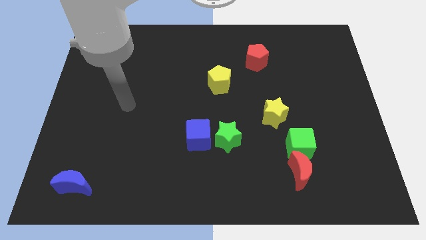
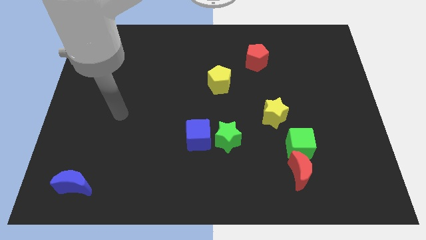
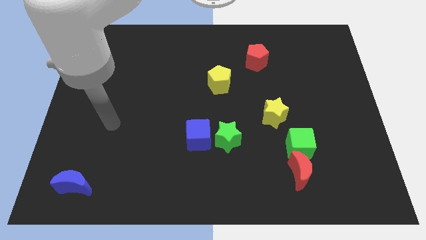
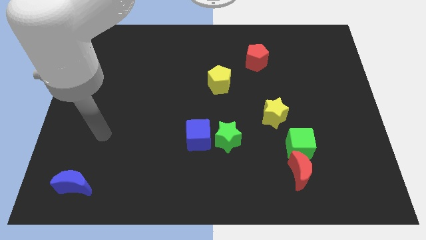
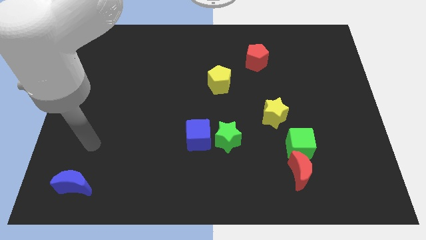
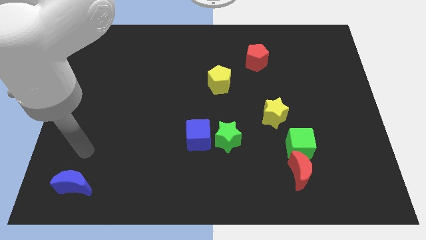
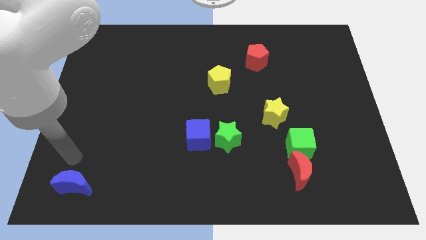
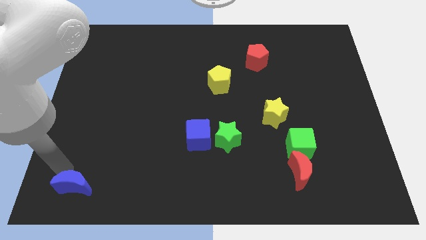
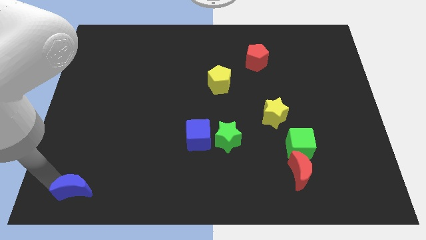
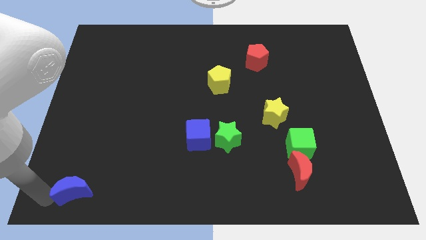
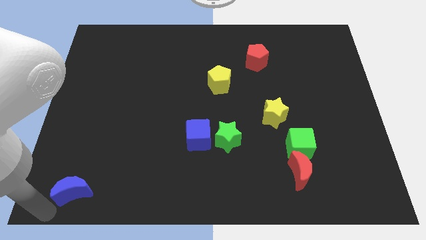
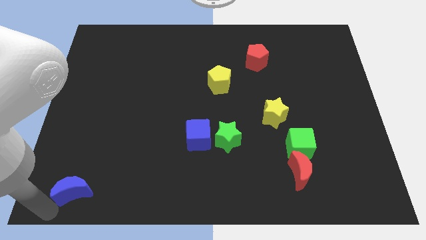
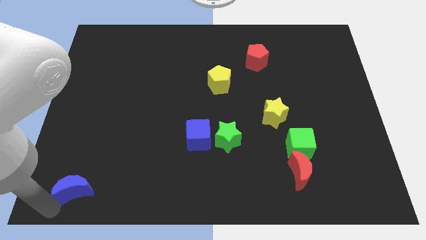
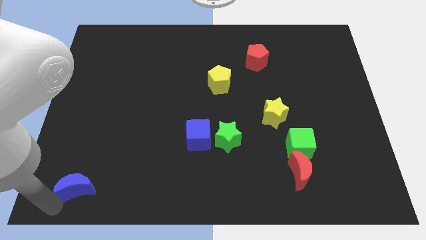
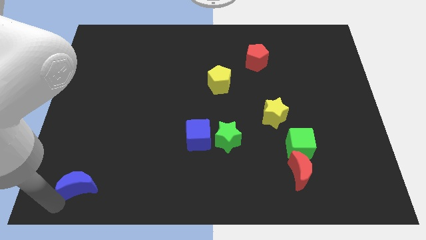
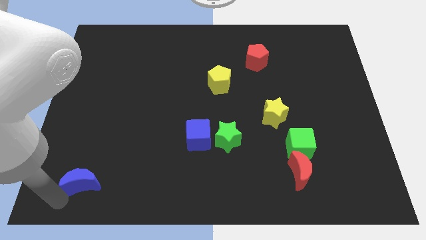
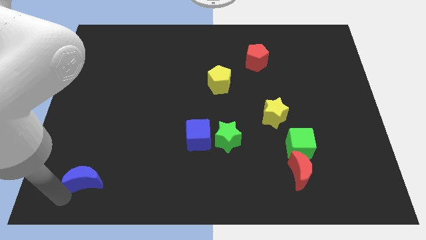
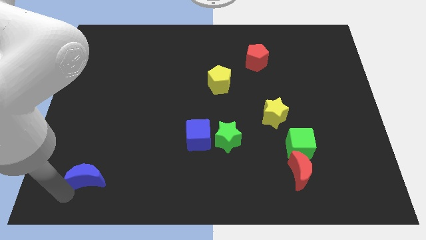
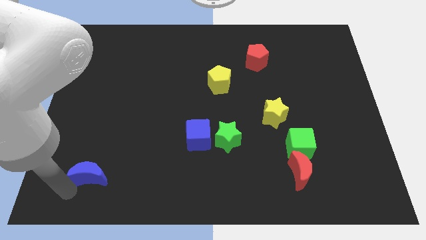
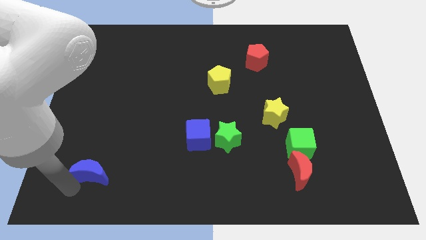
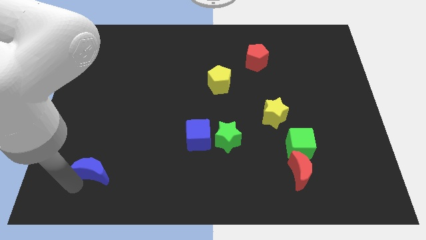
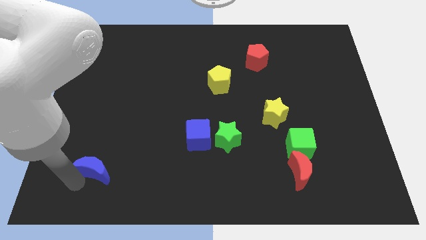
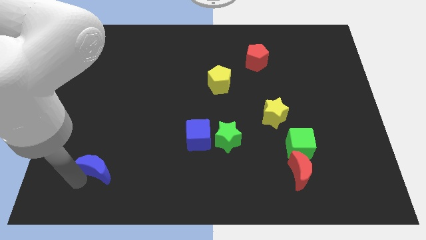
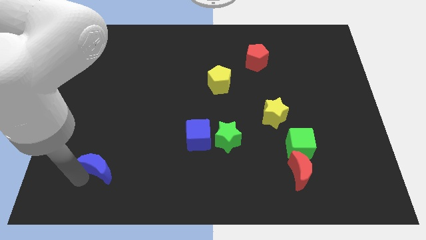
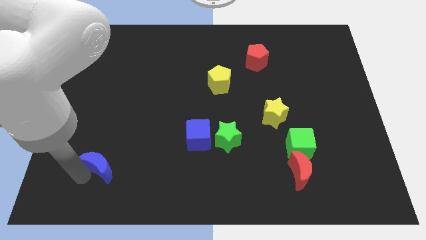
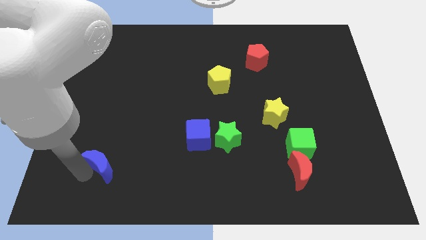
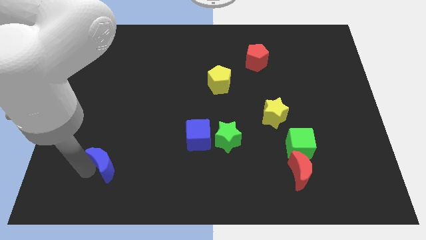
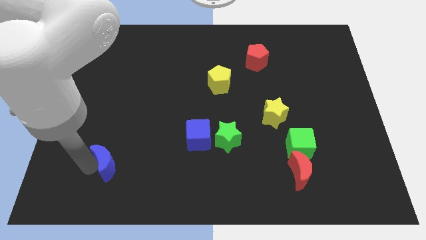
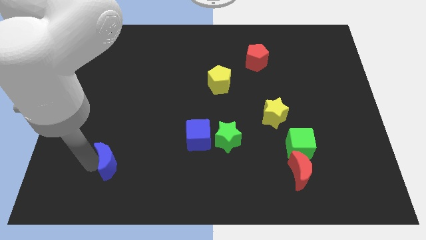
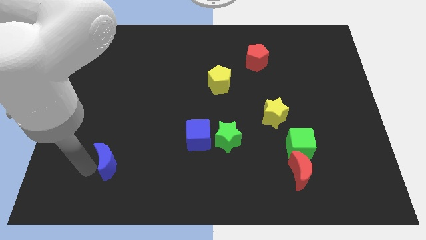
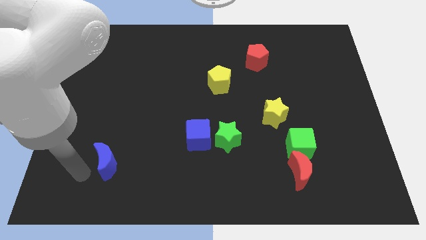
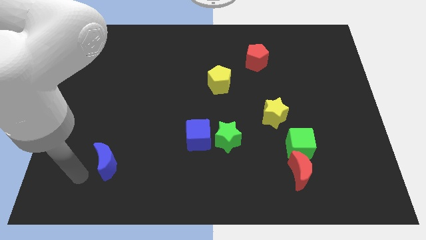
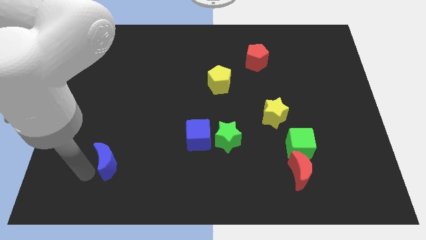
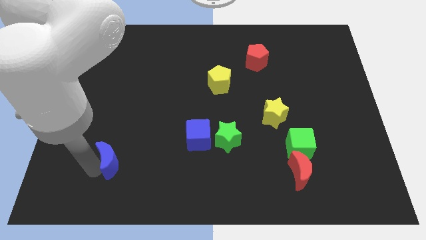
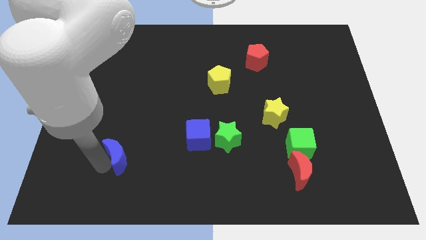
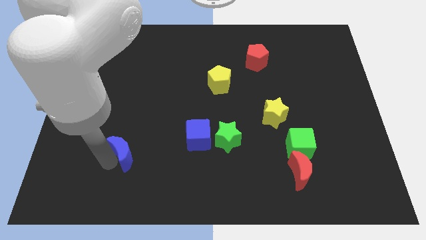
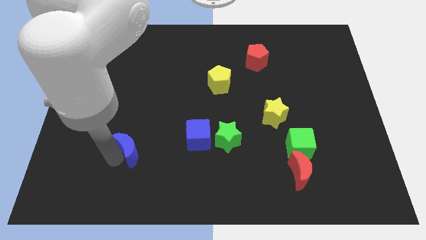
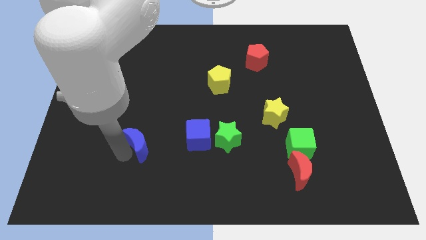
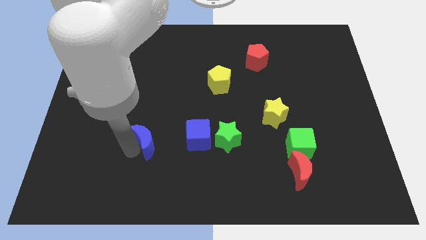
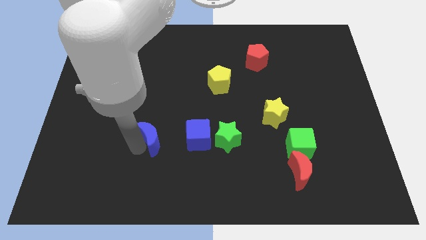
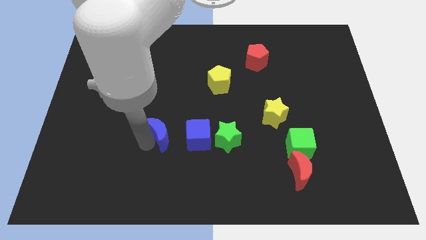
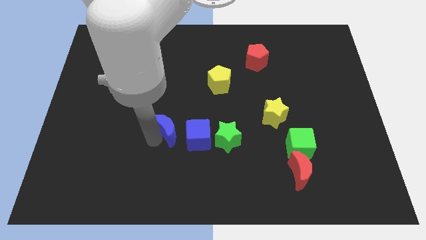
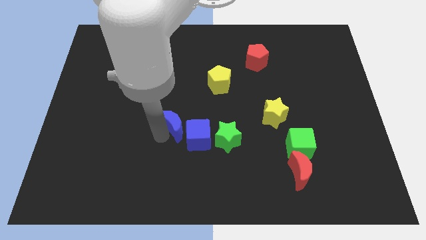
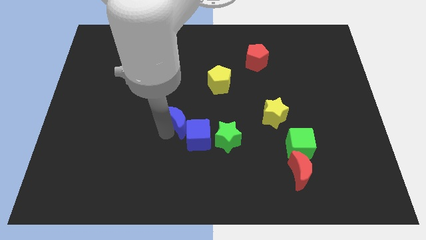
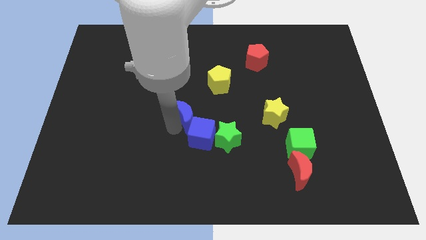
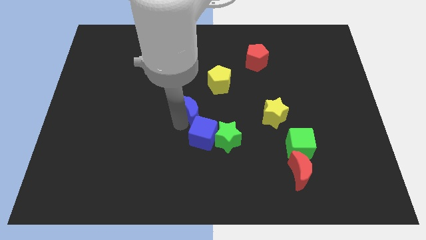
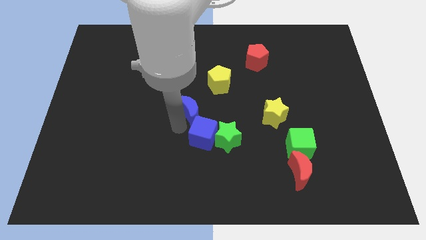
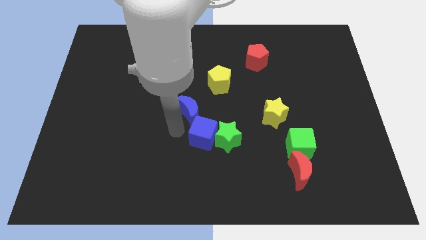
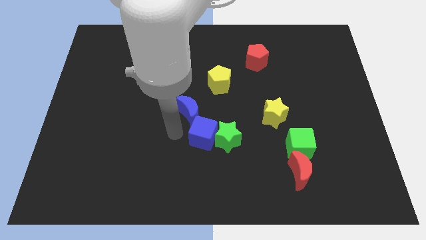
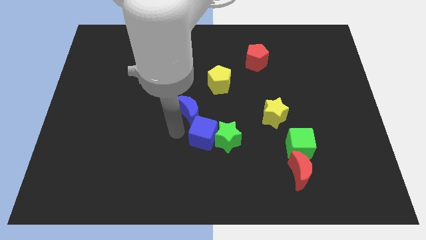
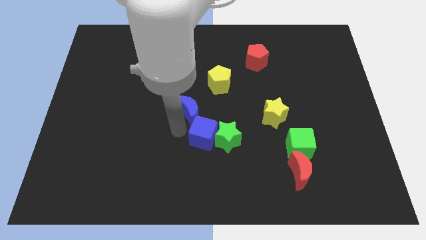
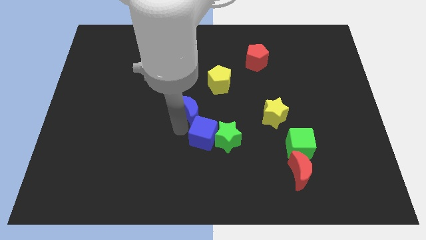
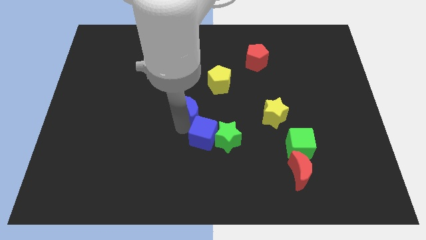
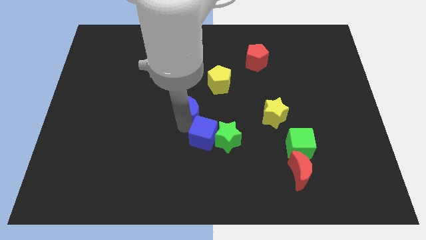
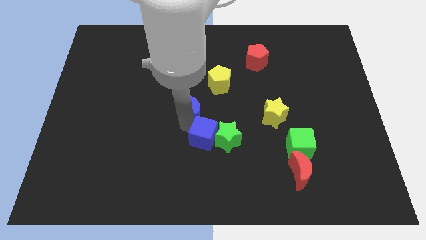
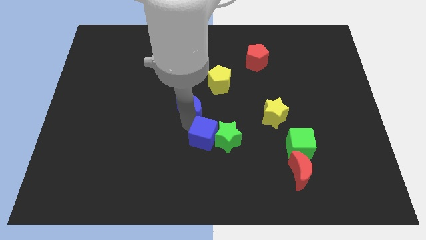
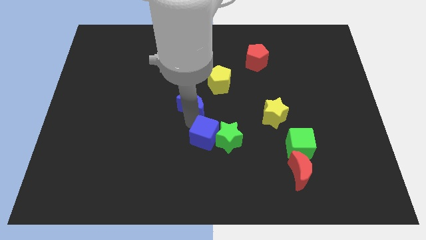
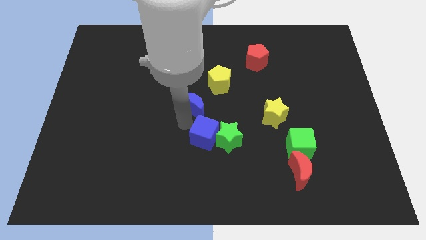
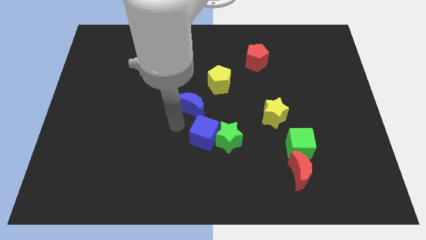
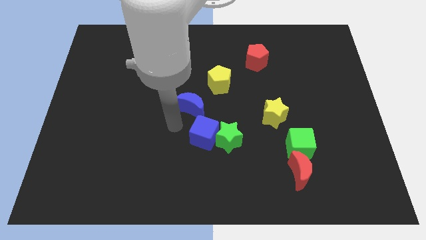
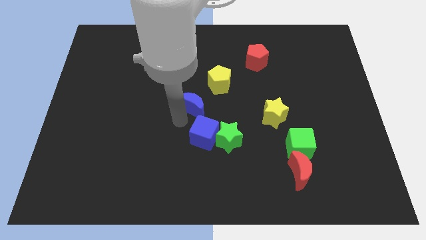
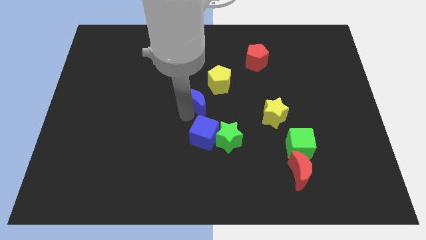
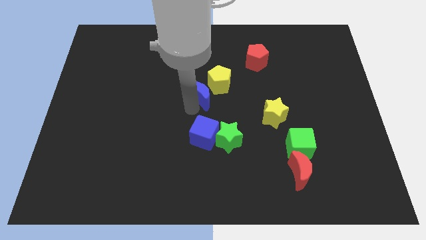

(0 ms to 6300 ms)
push the blue moon towards the yellow pentagon

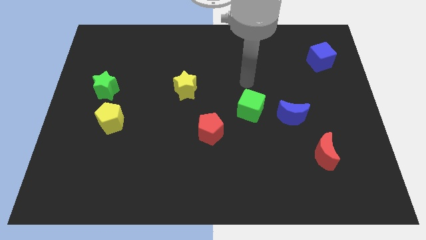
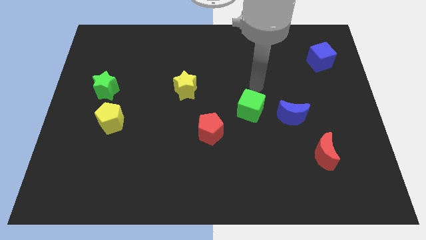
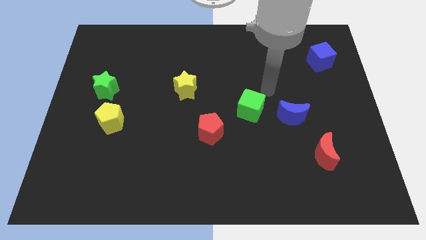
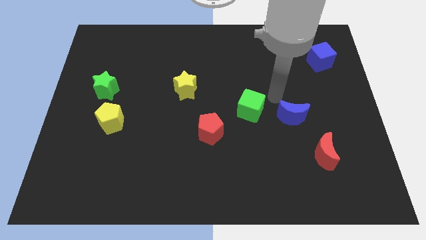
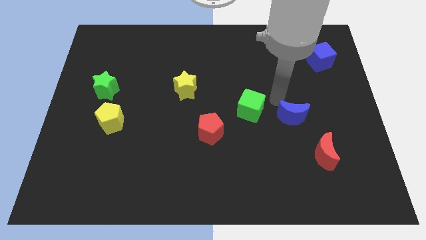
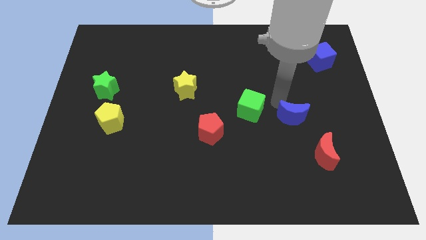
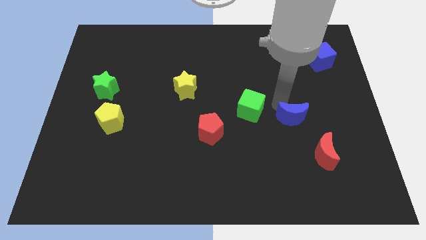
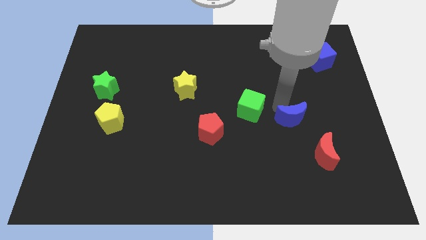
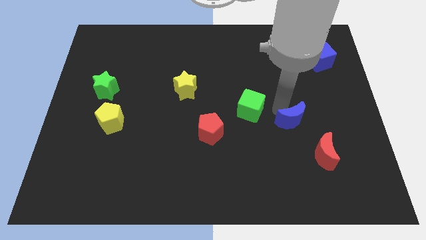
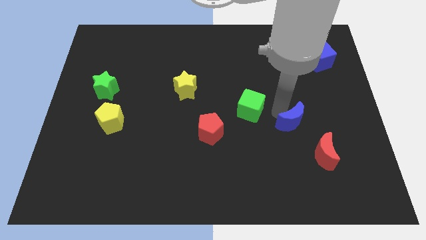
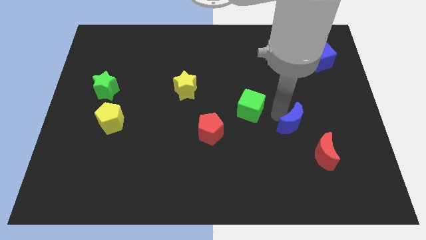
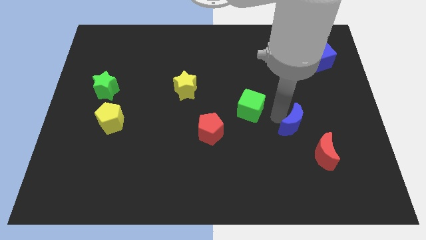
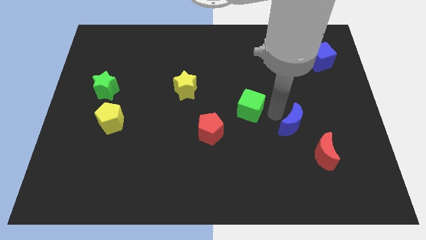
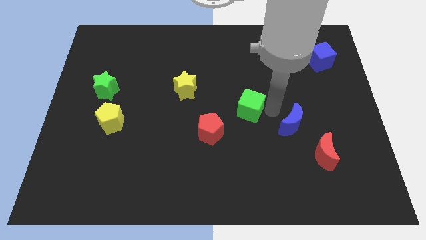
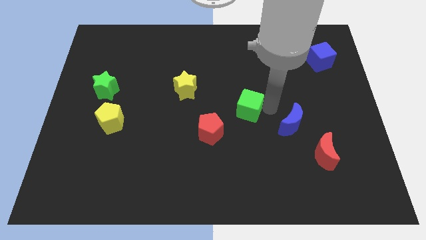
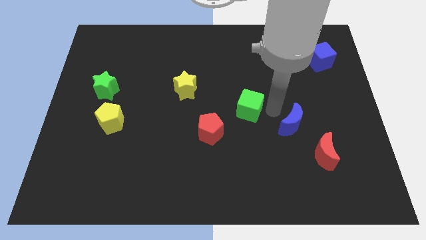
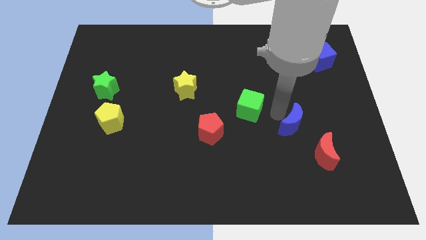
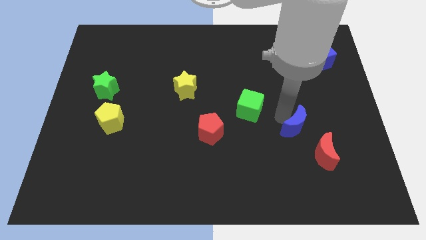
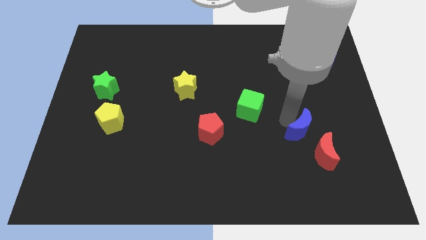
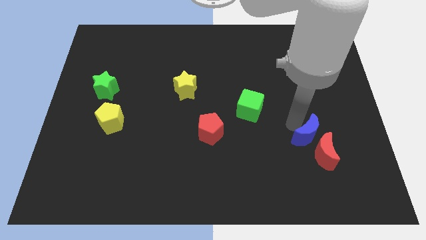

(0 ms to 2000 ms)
put the blue moon towards the red moon
